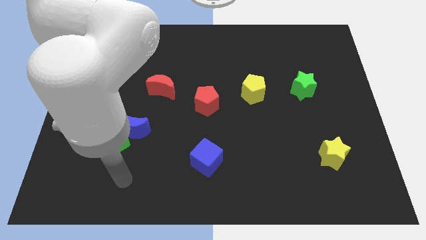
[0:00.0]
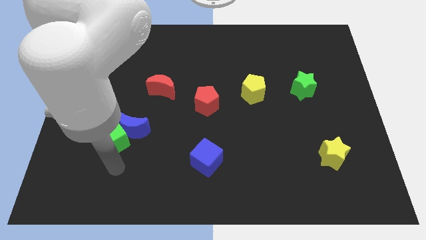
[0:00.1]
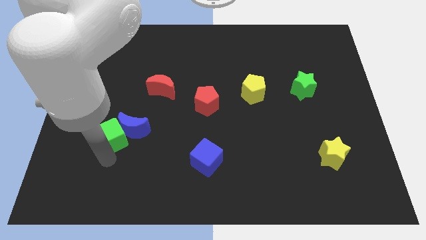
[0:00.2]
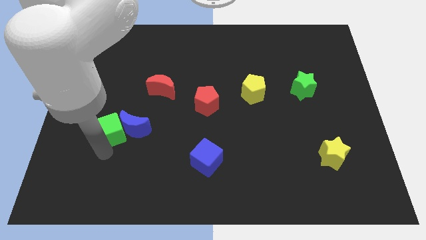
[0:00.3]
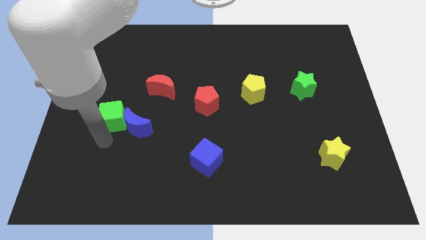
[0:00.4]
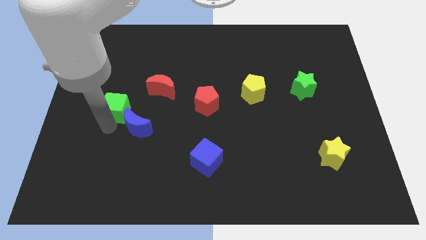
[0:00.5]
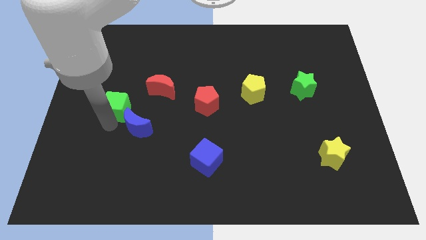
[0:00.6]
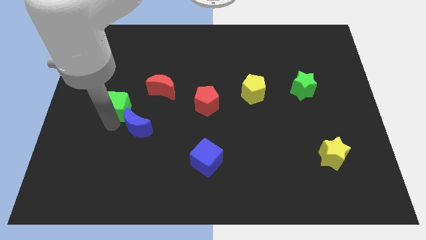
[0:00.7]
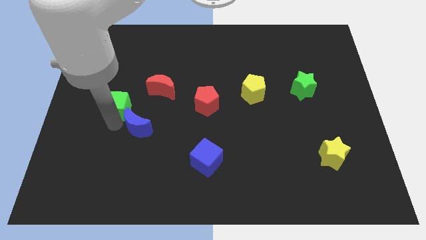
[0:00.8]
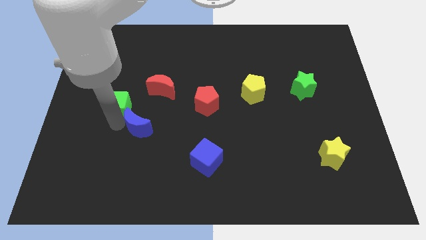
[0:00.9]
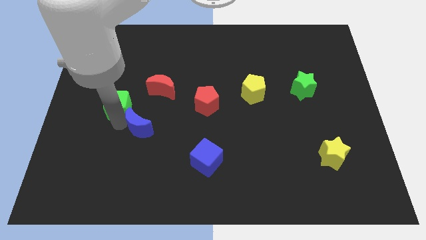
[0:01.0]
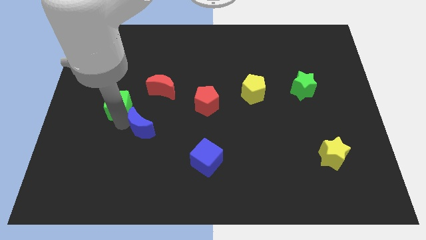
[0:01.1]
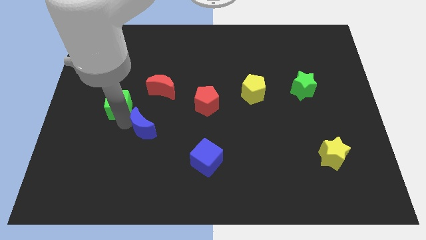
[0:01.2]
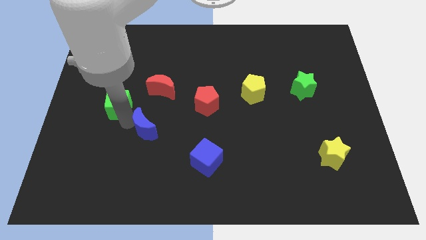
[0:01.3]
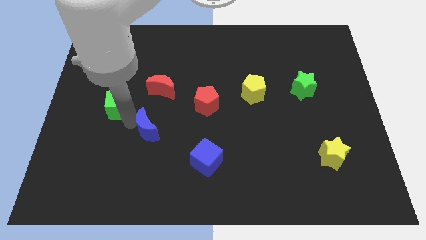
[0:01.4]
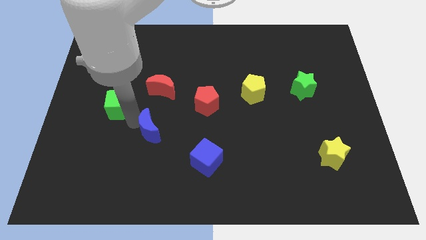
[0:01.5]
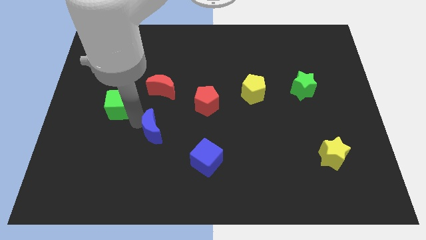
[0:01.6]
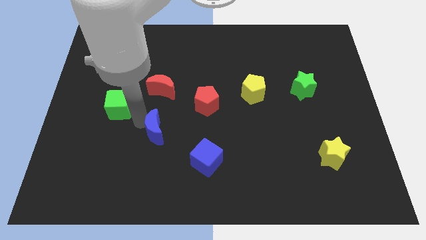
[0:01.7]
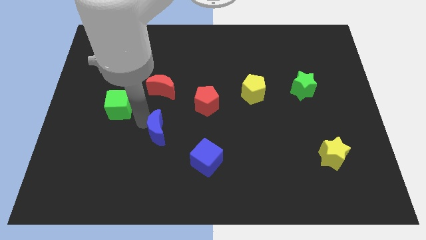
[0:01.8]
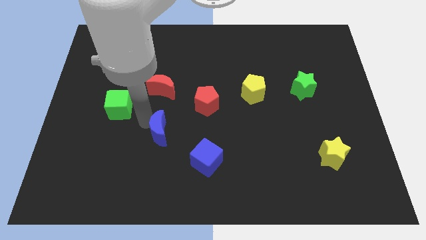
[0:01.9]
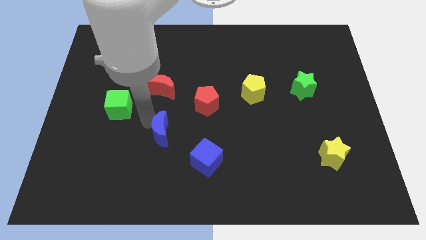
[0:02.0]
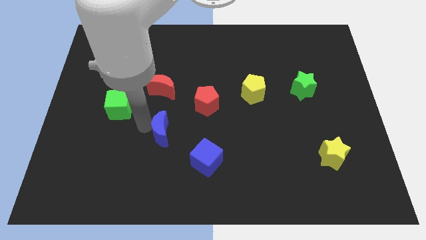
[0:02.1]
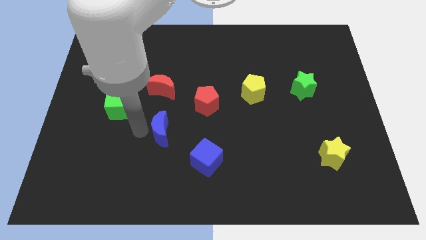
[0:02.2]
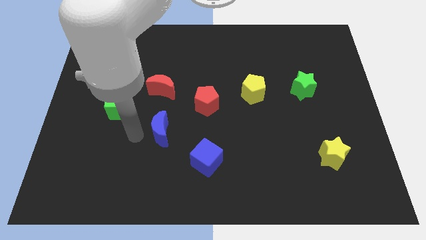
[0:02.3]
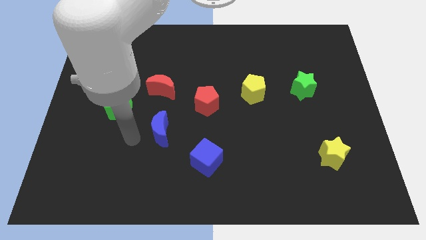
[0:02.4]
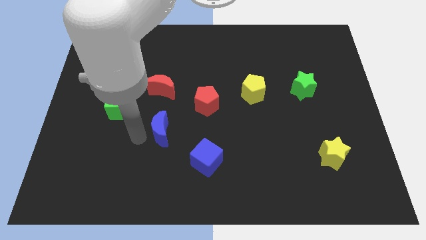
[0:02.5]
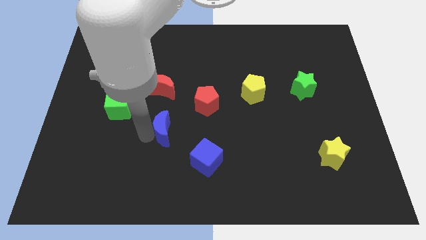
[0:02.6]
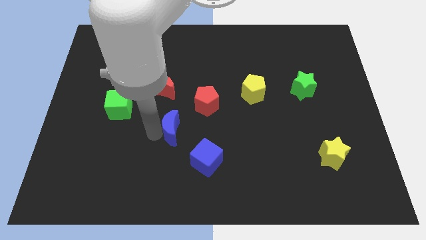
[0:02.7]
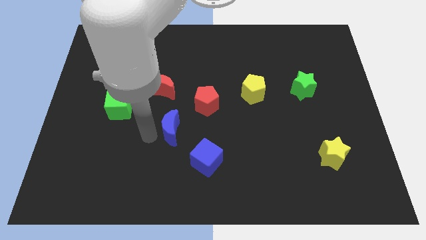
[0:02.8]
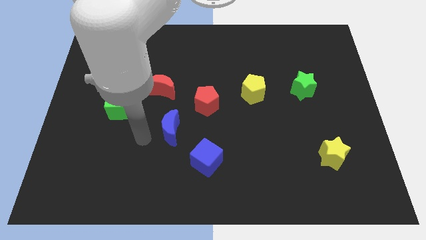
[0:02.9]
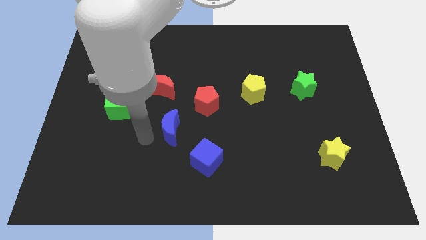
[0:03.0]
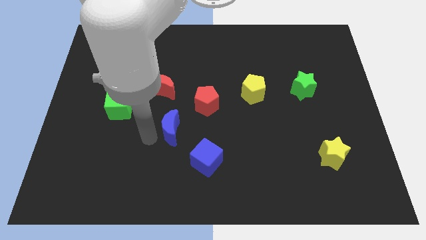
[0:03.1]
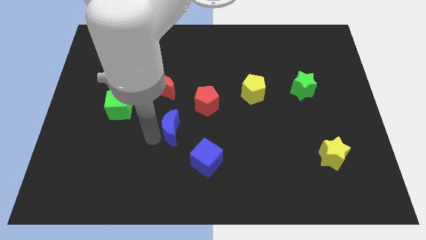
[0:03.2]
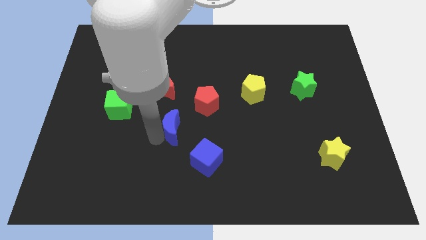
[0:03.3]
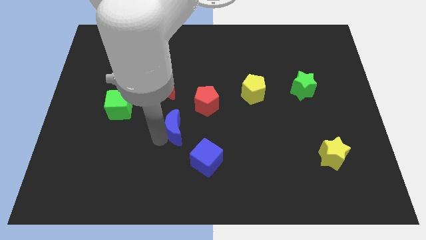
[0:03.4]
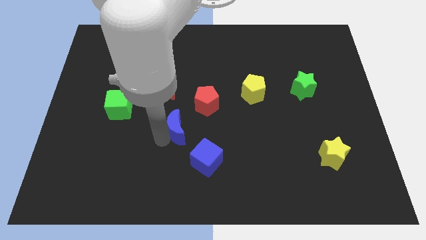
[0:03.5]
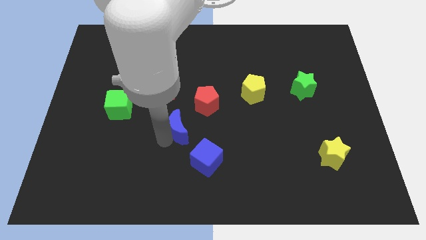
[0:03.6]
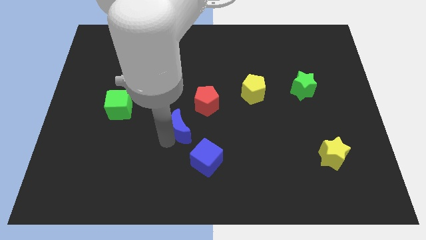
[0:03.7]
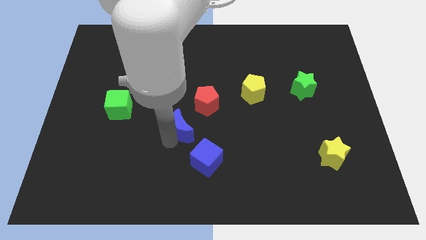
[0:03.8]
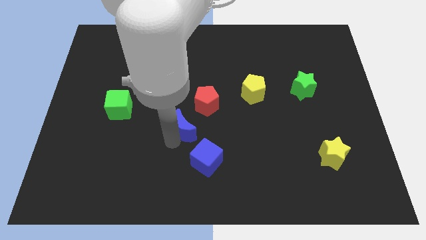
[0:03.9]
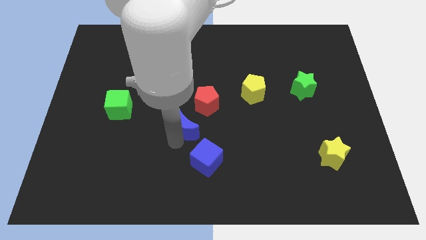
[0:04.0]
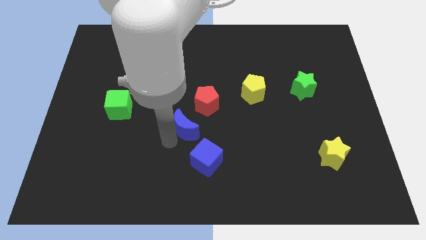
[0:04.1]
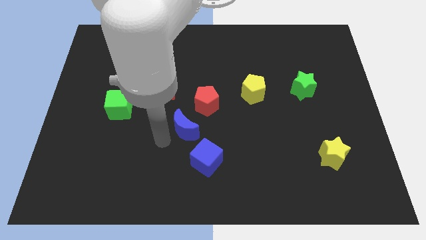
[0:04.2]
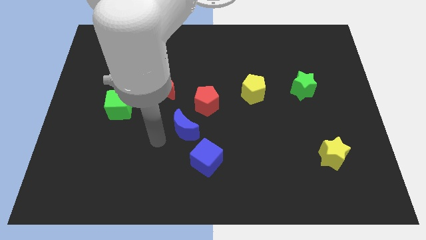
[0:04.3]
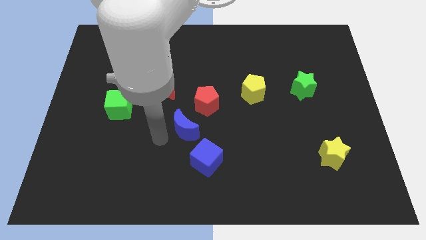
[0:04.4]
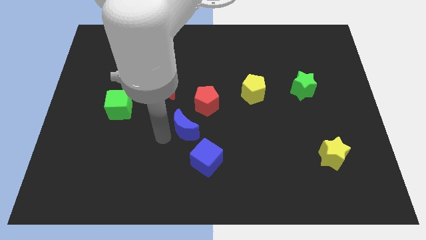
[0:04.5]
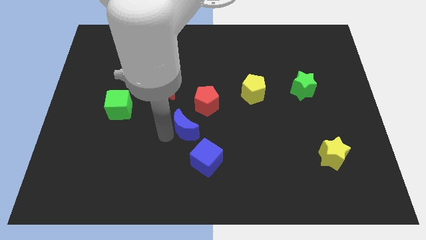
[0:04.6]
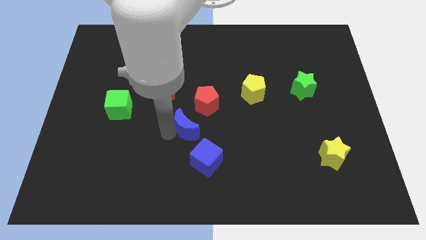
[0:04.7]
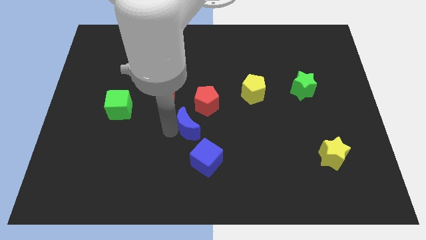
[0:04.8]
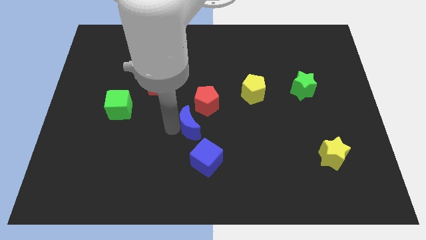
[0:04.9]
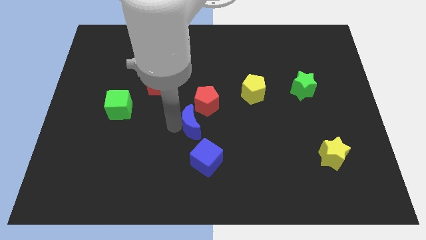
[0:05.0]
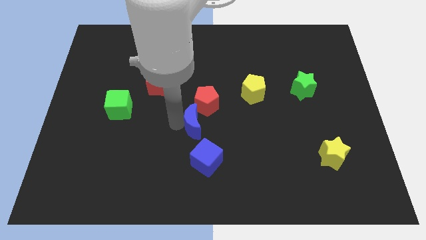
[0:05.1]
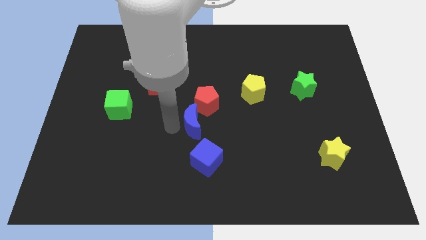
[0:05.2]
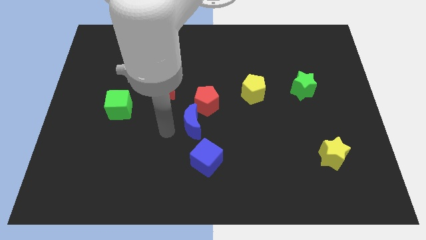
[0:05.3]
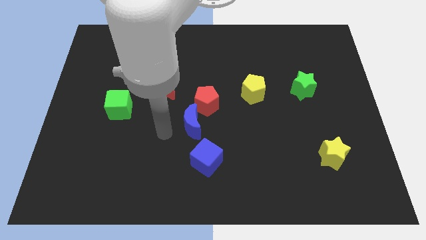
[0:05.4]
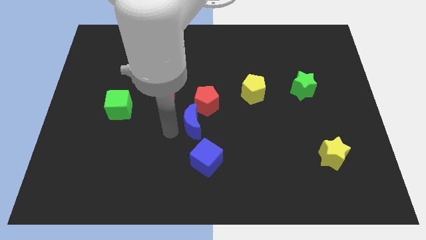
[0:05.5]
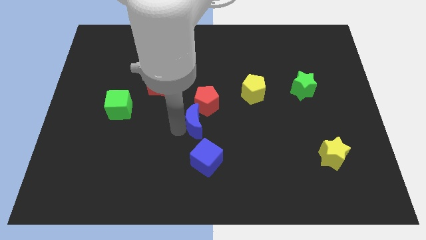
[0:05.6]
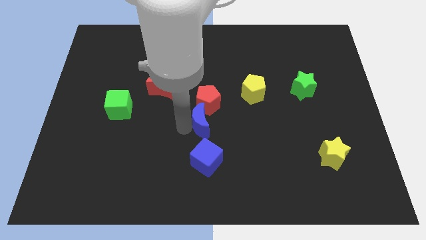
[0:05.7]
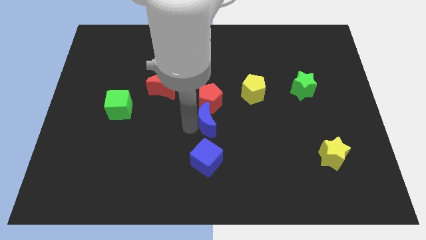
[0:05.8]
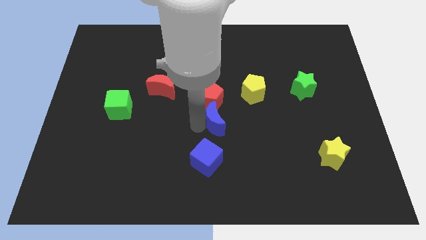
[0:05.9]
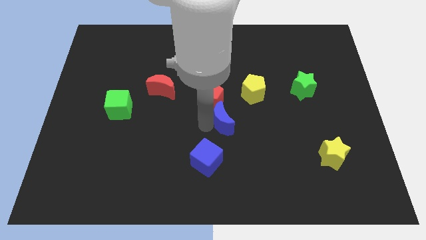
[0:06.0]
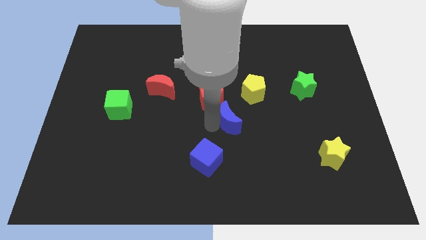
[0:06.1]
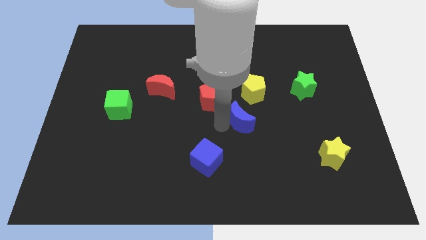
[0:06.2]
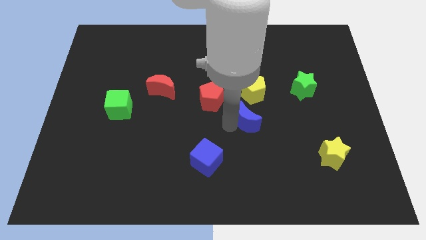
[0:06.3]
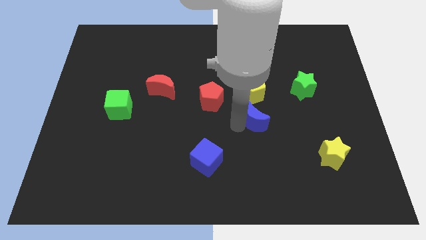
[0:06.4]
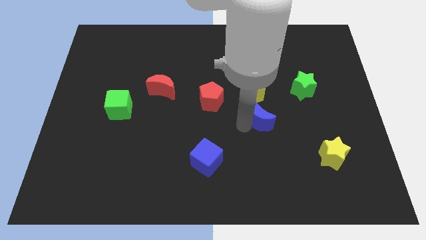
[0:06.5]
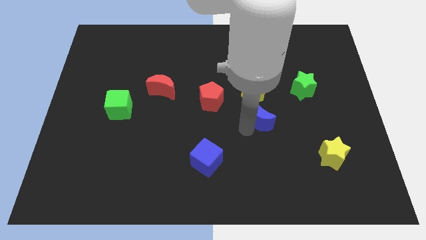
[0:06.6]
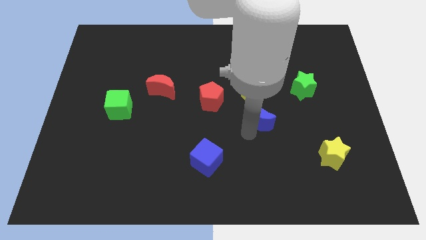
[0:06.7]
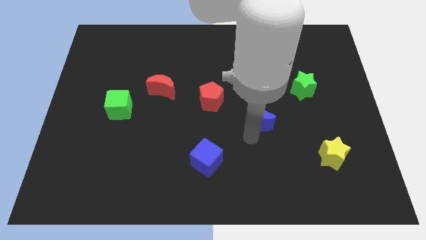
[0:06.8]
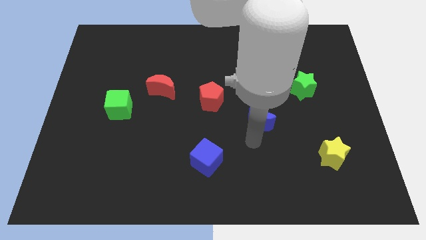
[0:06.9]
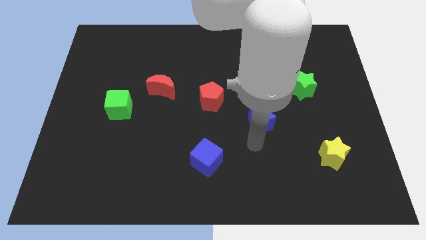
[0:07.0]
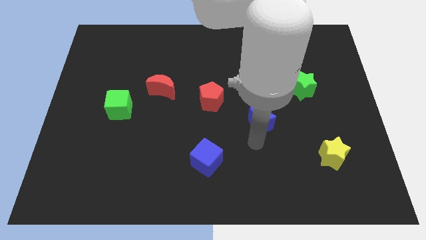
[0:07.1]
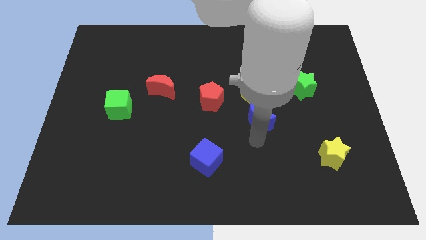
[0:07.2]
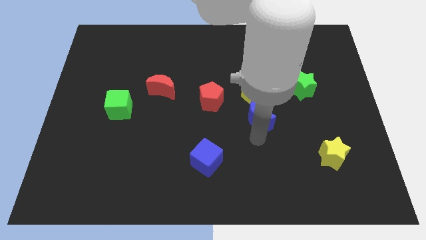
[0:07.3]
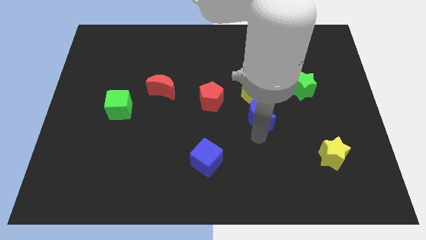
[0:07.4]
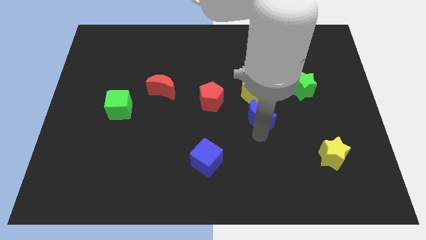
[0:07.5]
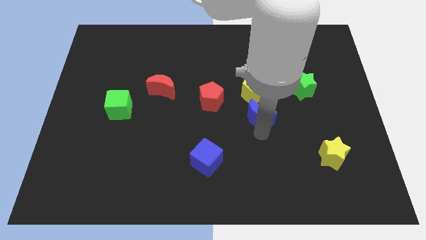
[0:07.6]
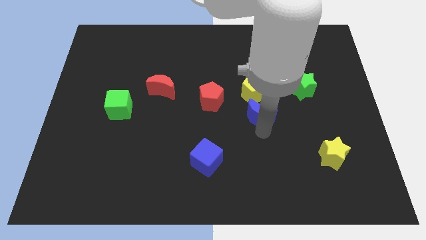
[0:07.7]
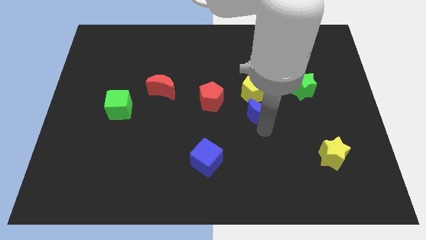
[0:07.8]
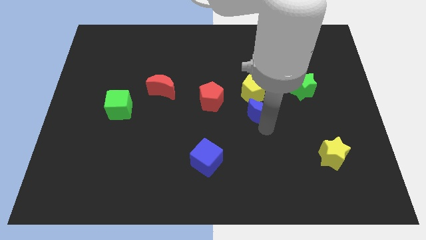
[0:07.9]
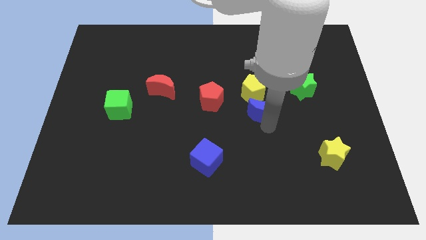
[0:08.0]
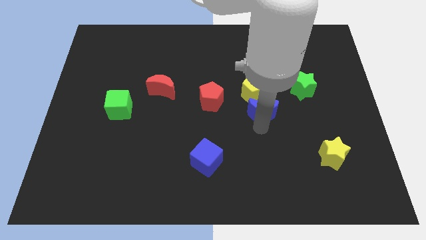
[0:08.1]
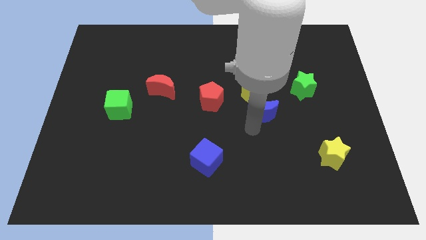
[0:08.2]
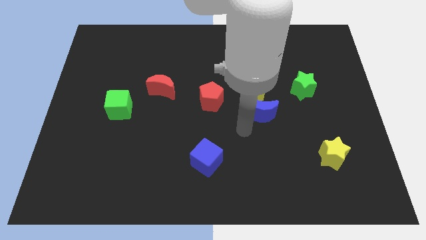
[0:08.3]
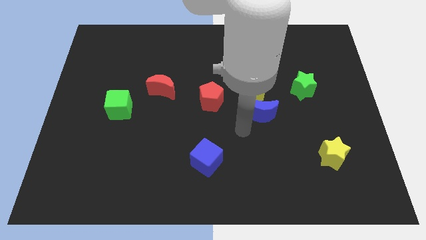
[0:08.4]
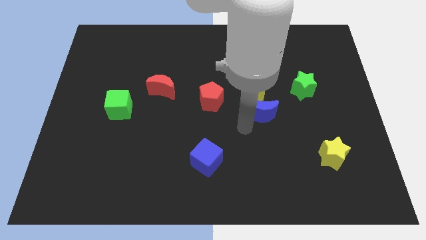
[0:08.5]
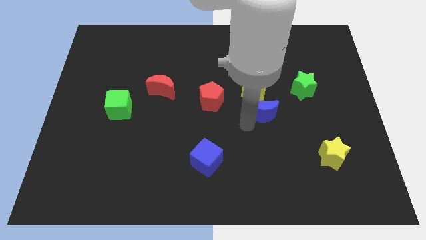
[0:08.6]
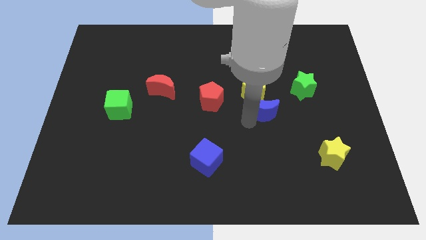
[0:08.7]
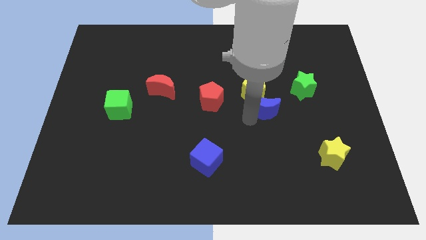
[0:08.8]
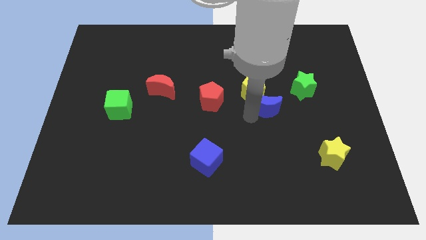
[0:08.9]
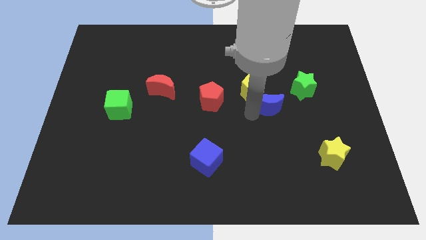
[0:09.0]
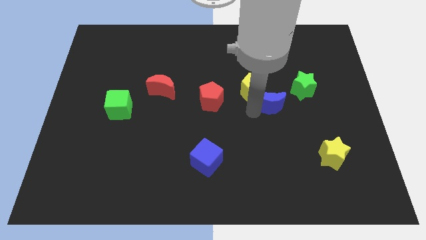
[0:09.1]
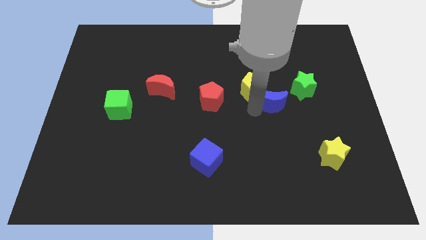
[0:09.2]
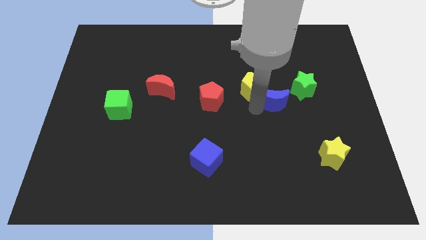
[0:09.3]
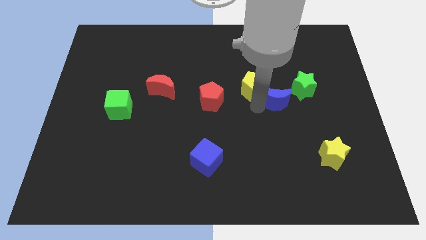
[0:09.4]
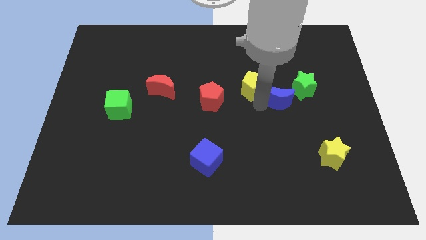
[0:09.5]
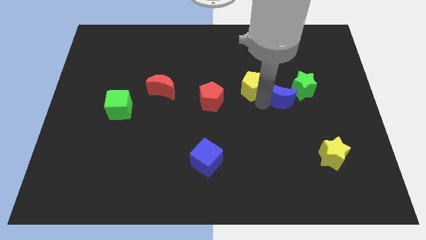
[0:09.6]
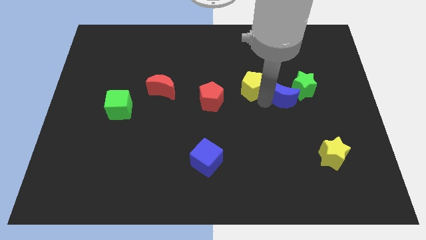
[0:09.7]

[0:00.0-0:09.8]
put the blue moon close to the green star
